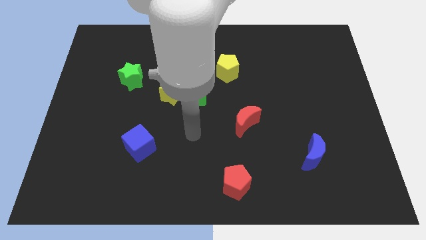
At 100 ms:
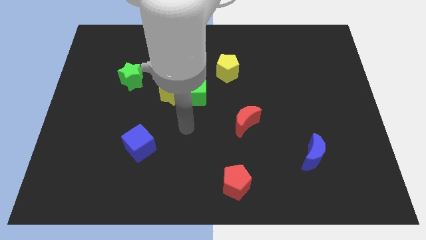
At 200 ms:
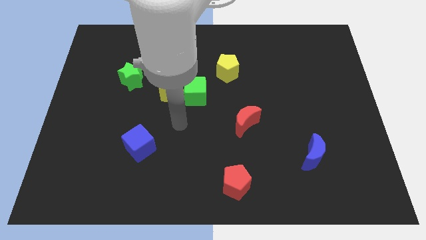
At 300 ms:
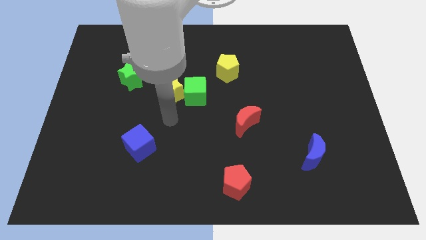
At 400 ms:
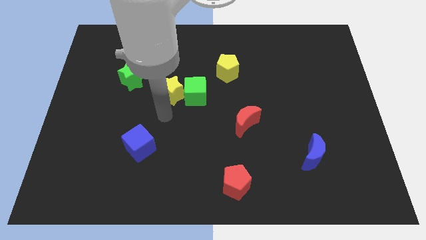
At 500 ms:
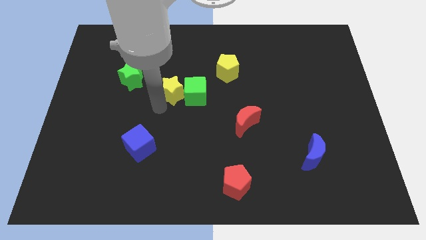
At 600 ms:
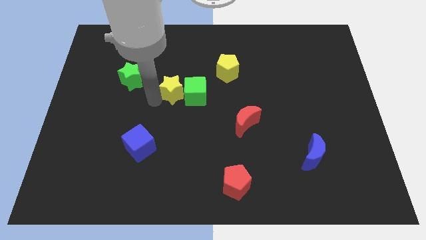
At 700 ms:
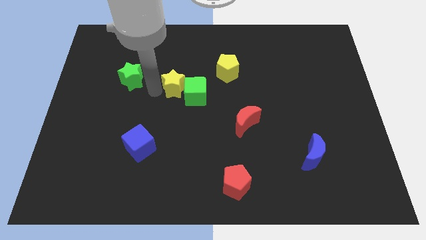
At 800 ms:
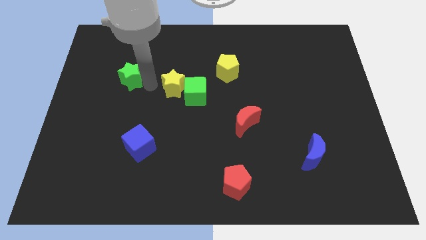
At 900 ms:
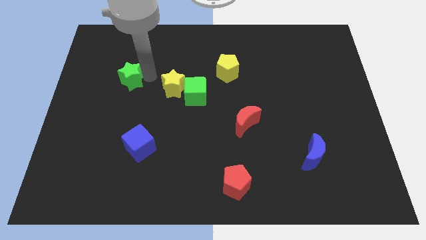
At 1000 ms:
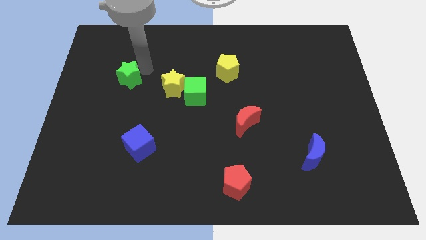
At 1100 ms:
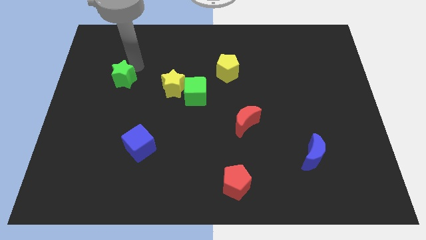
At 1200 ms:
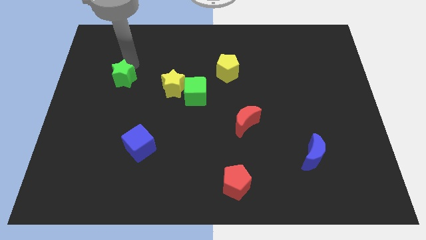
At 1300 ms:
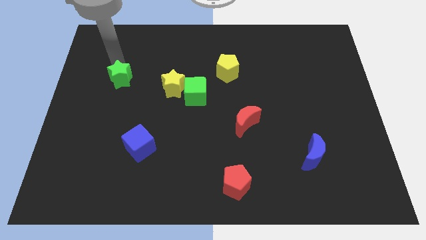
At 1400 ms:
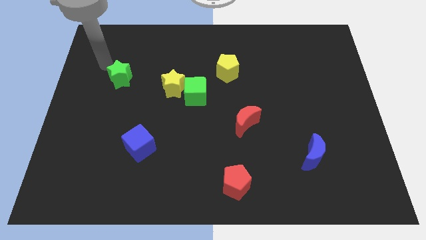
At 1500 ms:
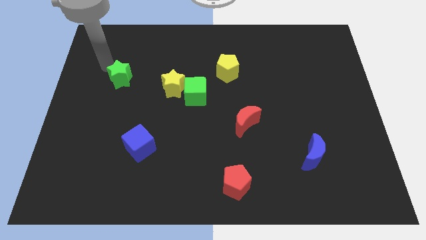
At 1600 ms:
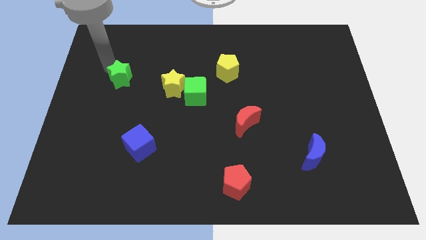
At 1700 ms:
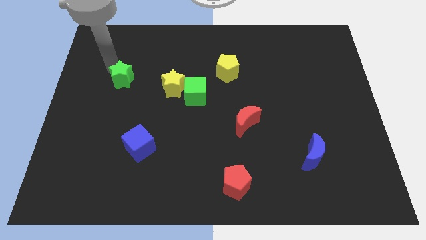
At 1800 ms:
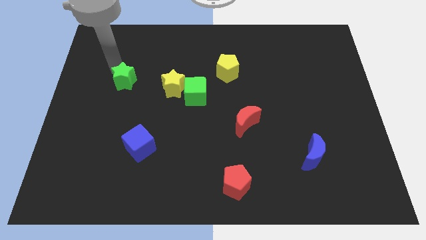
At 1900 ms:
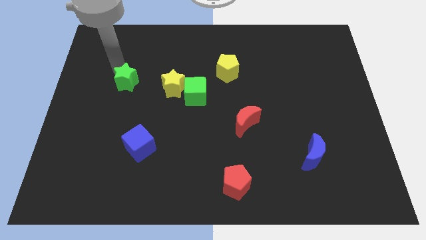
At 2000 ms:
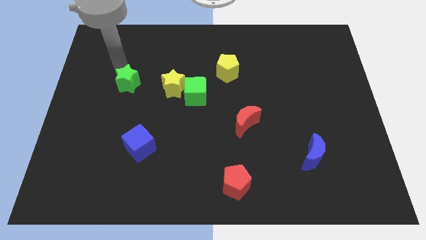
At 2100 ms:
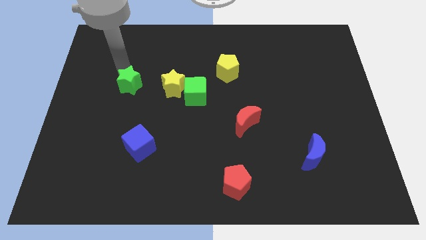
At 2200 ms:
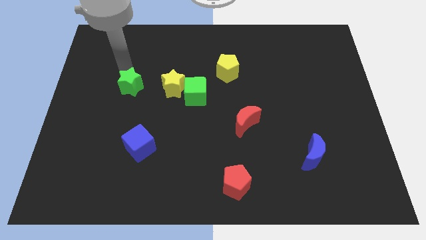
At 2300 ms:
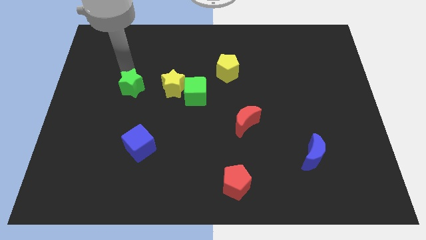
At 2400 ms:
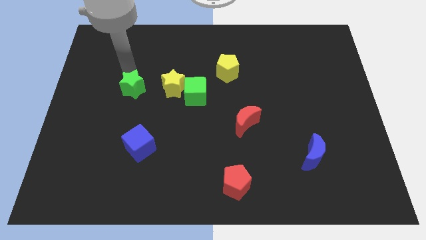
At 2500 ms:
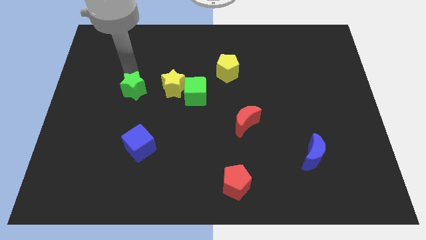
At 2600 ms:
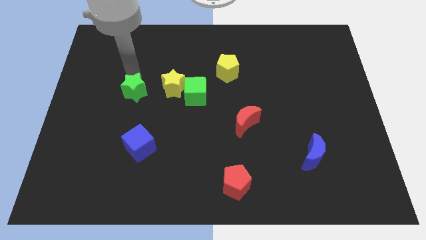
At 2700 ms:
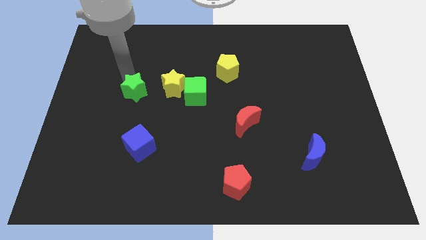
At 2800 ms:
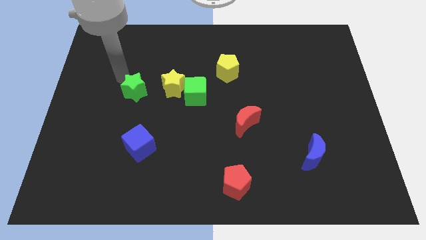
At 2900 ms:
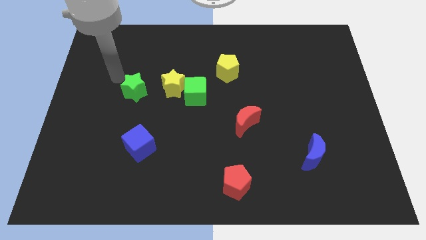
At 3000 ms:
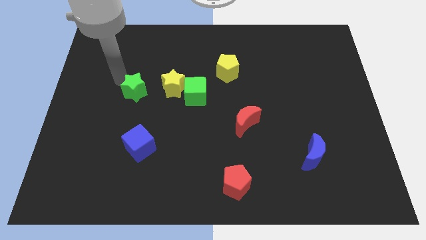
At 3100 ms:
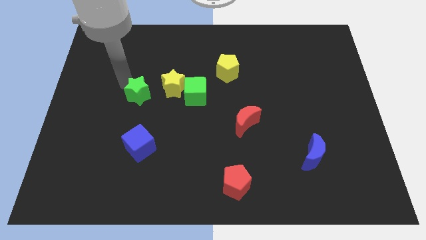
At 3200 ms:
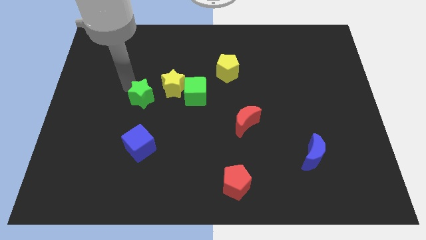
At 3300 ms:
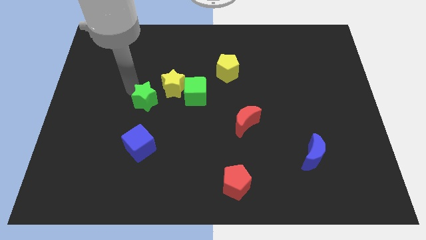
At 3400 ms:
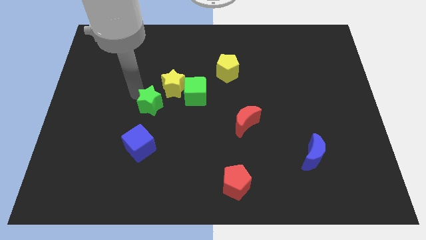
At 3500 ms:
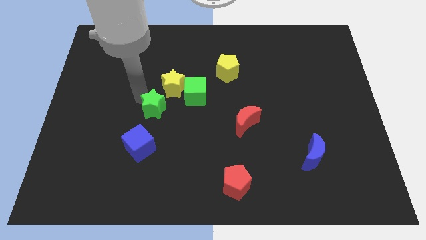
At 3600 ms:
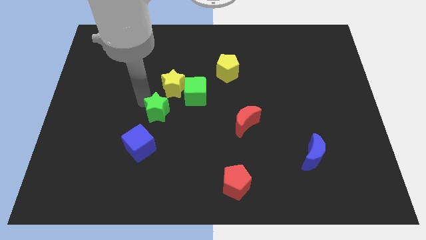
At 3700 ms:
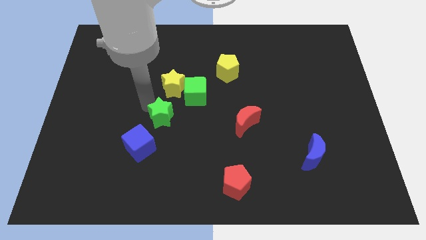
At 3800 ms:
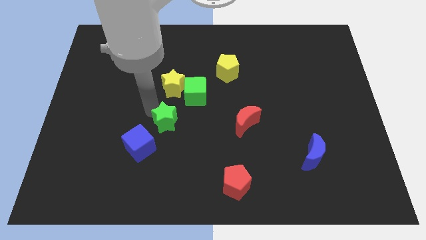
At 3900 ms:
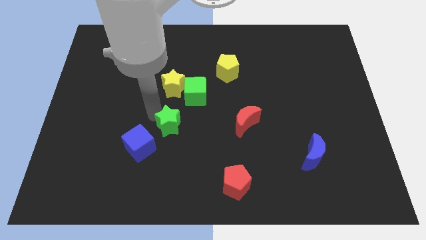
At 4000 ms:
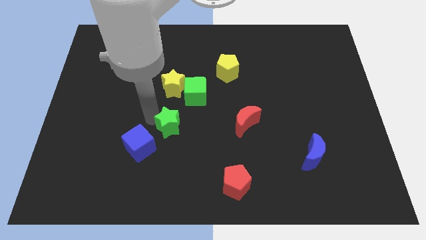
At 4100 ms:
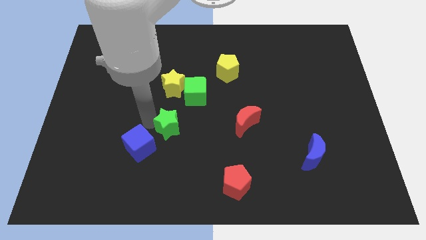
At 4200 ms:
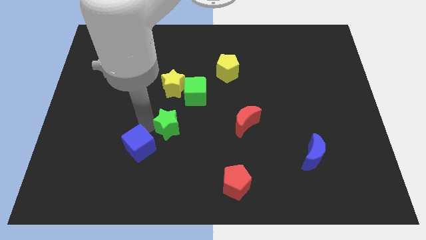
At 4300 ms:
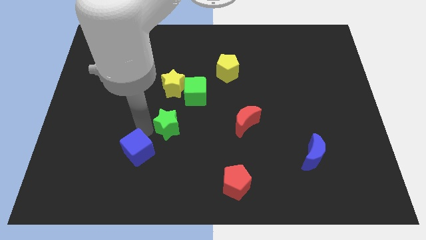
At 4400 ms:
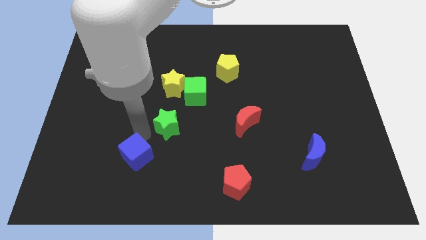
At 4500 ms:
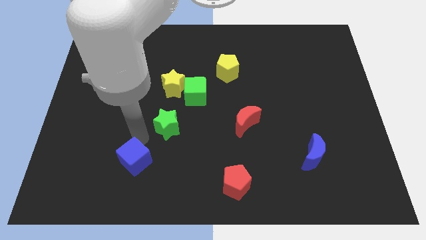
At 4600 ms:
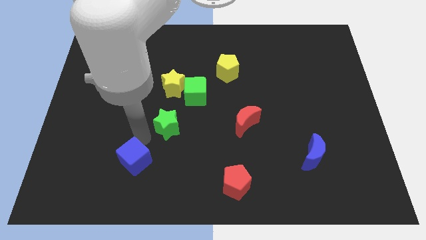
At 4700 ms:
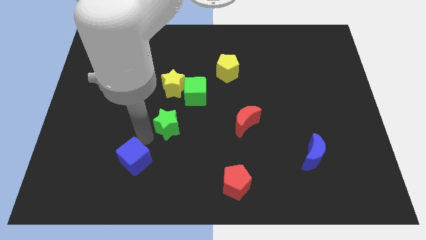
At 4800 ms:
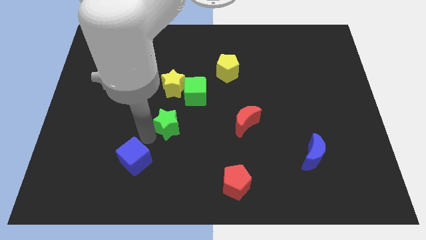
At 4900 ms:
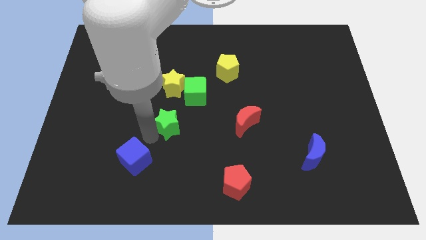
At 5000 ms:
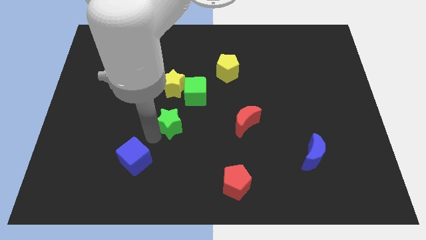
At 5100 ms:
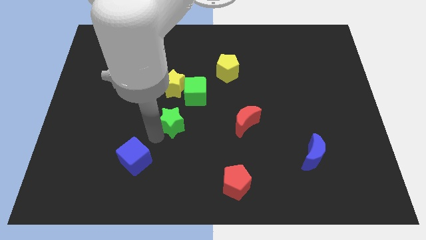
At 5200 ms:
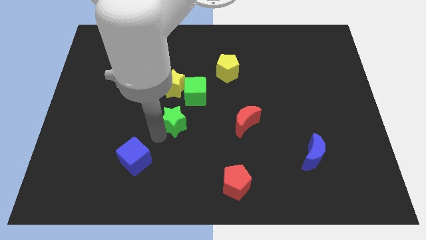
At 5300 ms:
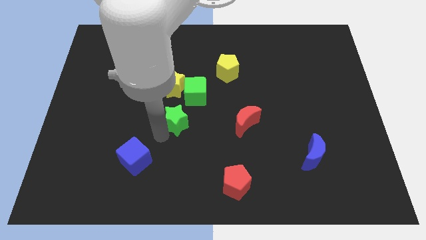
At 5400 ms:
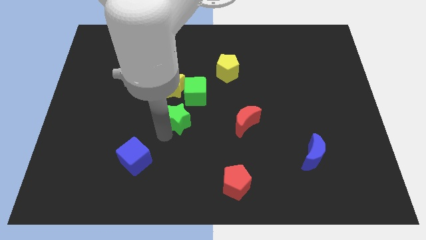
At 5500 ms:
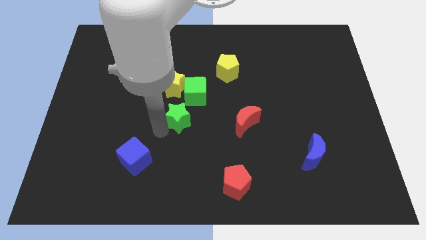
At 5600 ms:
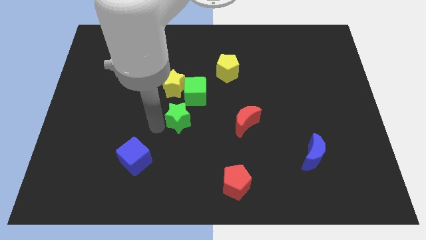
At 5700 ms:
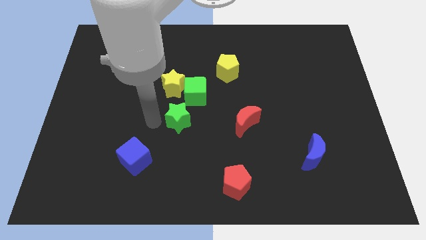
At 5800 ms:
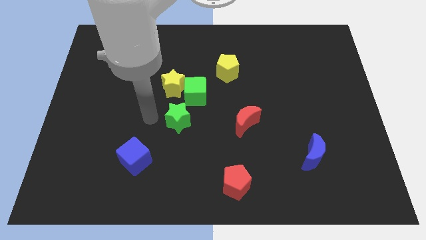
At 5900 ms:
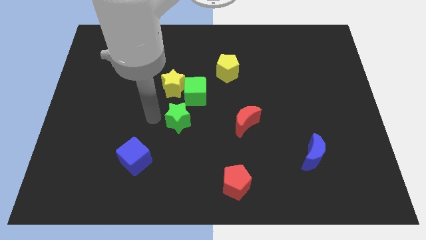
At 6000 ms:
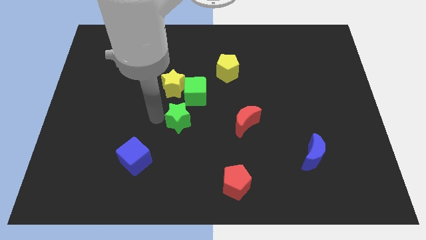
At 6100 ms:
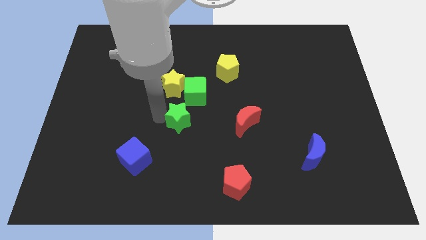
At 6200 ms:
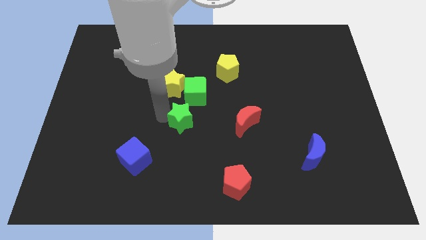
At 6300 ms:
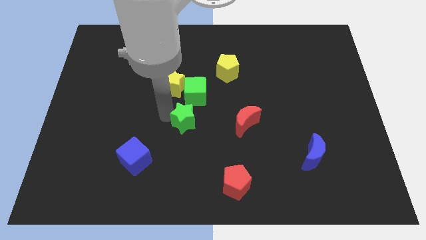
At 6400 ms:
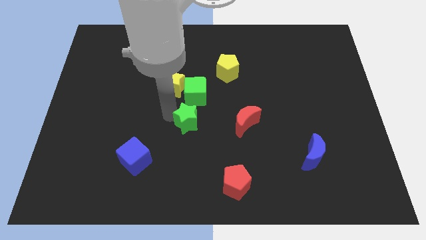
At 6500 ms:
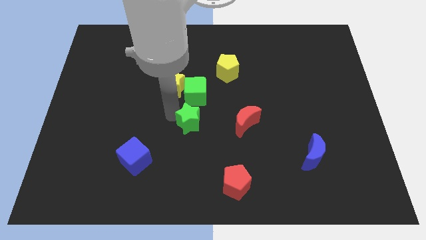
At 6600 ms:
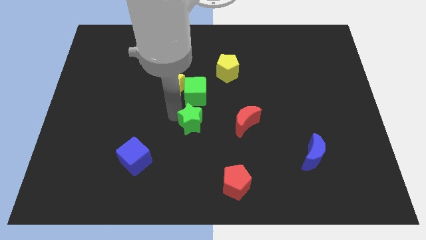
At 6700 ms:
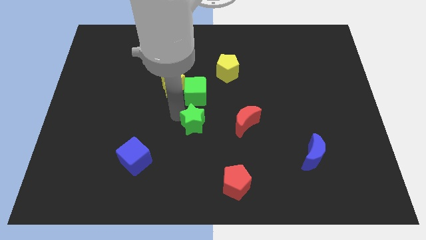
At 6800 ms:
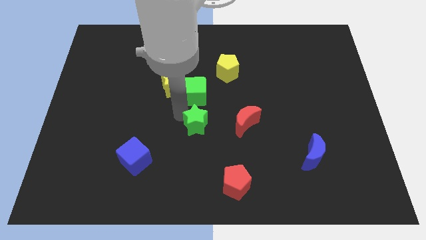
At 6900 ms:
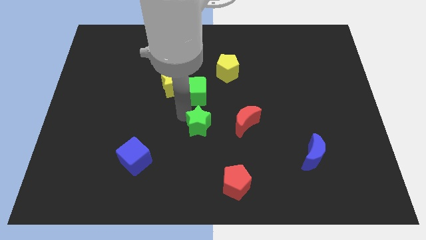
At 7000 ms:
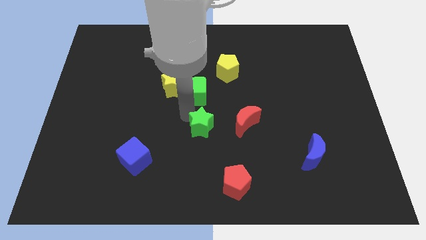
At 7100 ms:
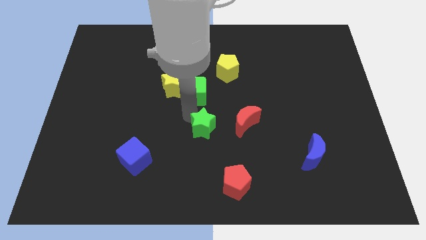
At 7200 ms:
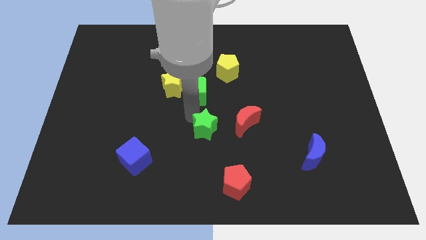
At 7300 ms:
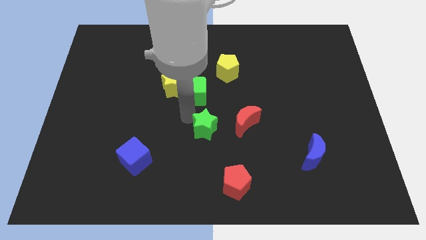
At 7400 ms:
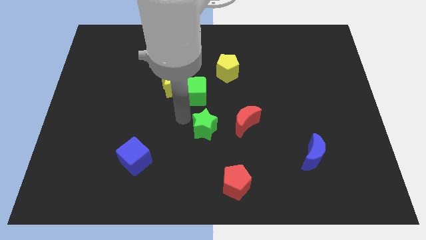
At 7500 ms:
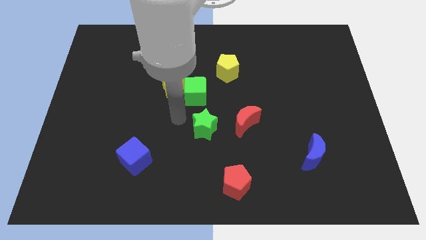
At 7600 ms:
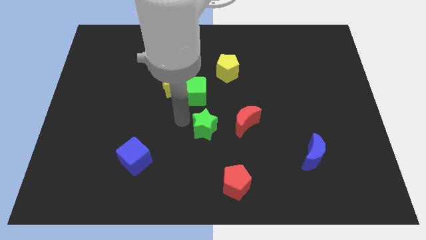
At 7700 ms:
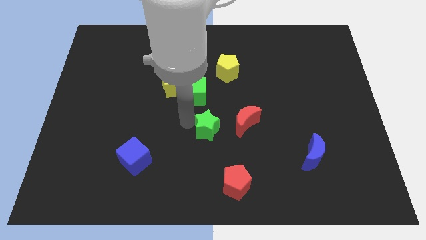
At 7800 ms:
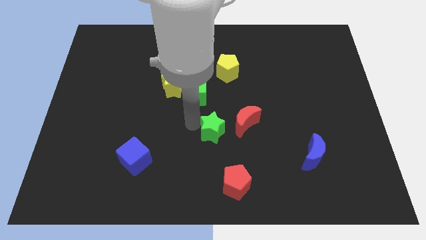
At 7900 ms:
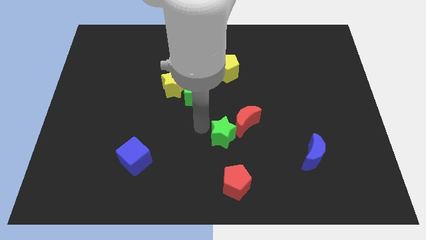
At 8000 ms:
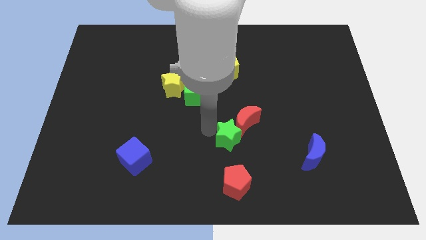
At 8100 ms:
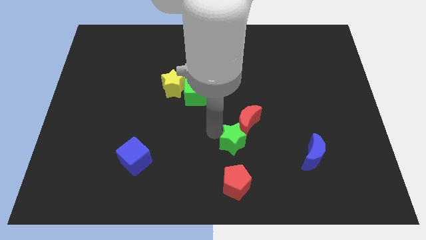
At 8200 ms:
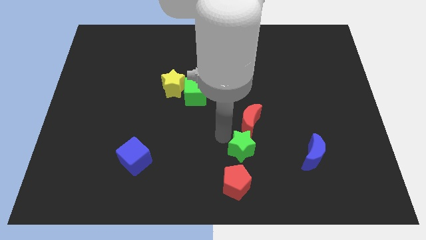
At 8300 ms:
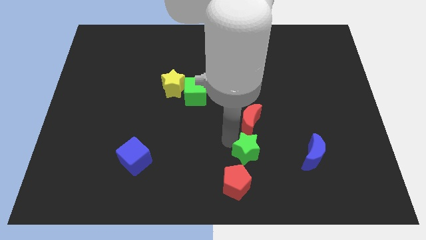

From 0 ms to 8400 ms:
slide the green star to the top right of the red pentagon
